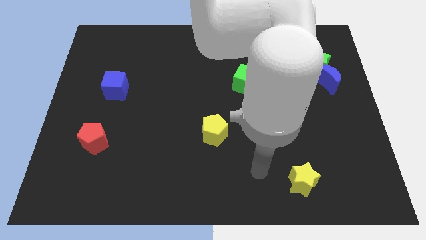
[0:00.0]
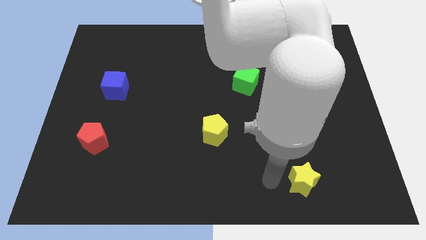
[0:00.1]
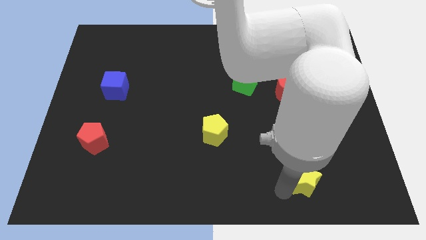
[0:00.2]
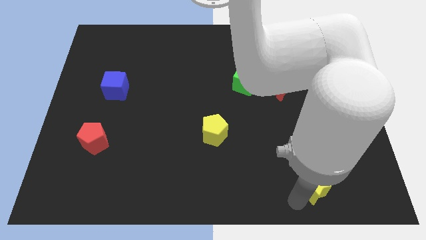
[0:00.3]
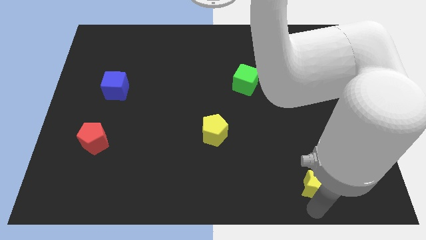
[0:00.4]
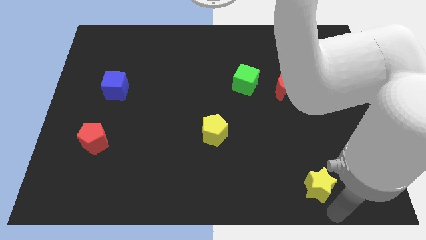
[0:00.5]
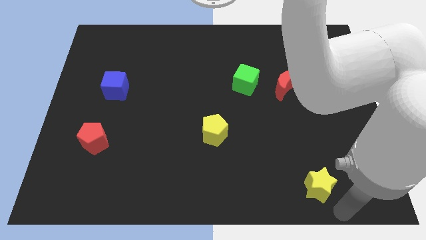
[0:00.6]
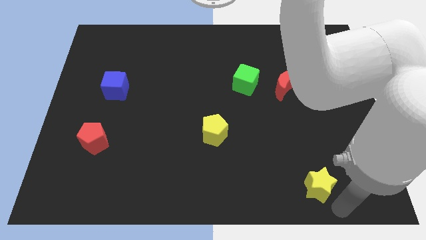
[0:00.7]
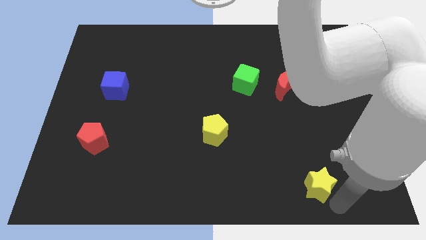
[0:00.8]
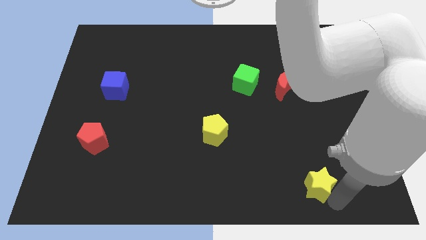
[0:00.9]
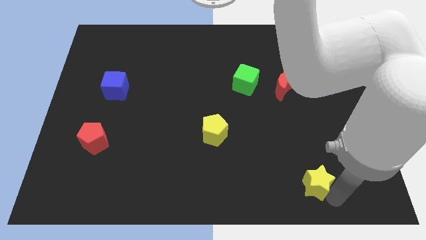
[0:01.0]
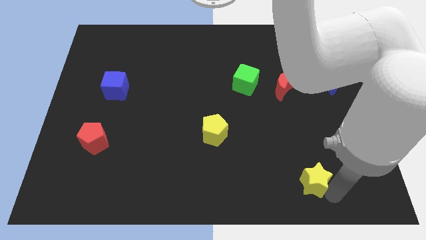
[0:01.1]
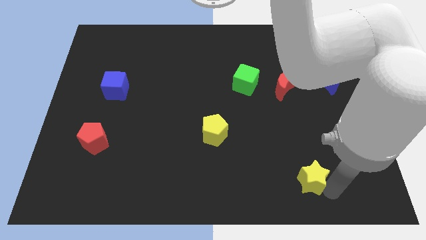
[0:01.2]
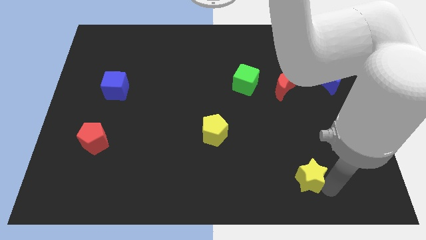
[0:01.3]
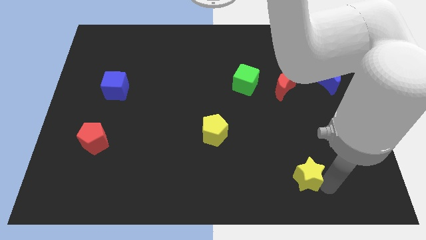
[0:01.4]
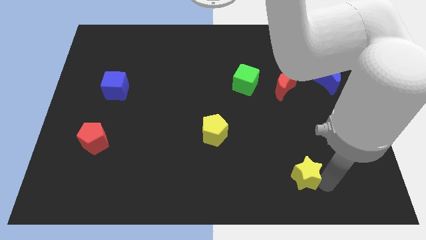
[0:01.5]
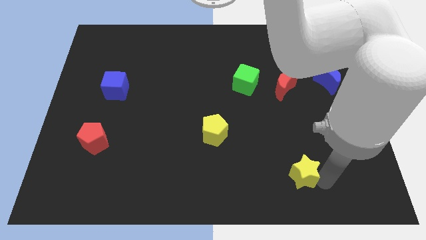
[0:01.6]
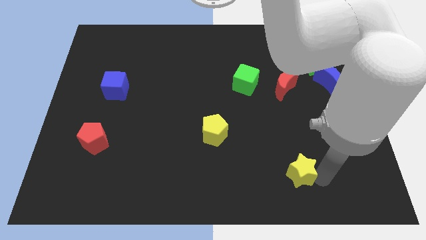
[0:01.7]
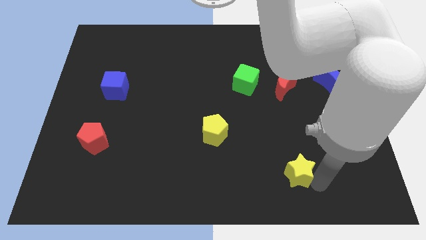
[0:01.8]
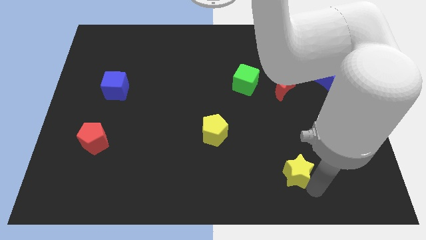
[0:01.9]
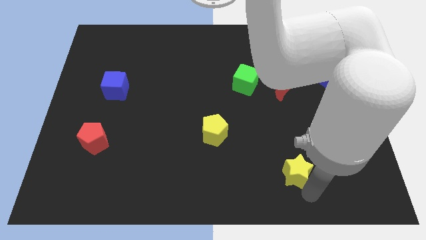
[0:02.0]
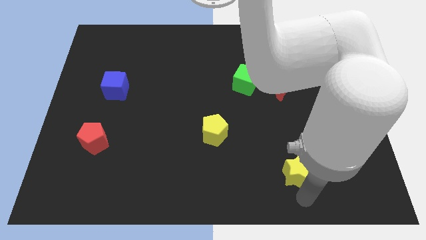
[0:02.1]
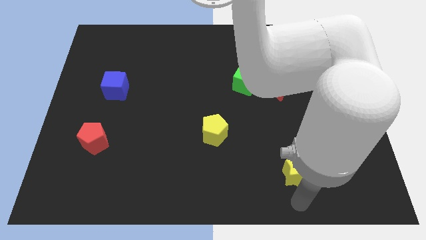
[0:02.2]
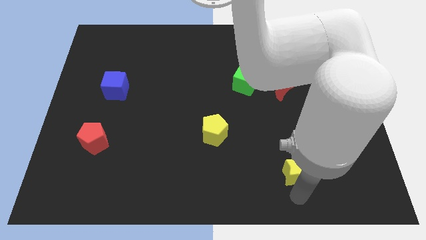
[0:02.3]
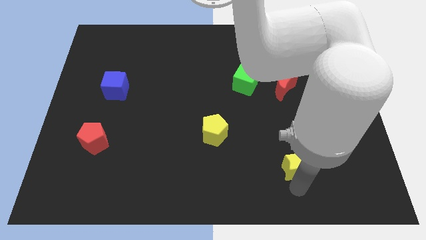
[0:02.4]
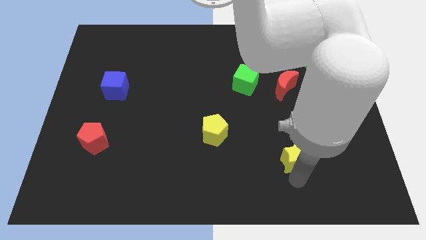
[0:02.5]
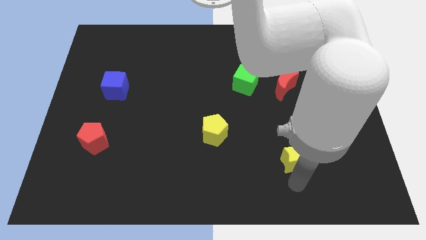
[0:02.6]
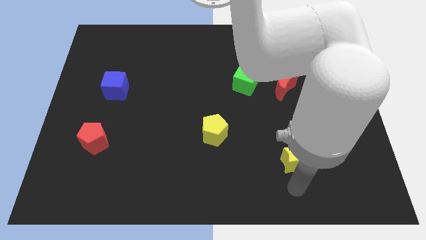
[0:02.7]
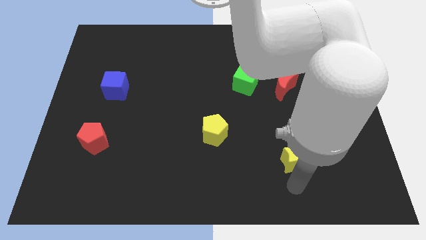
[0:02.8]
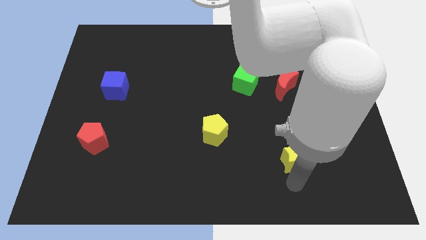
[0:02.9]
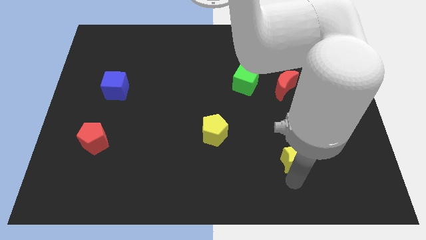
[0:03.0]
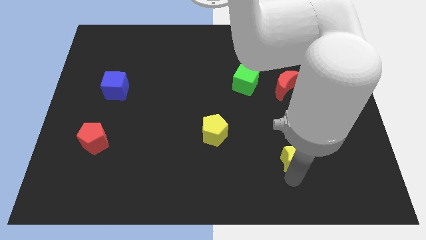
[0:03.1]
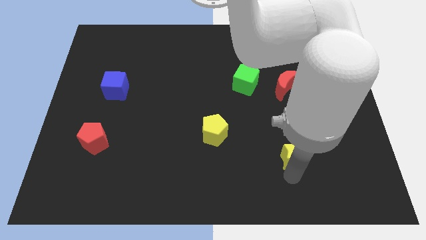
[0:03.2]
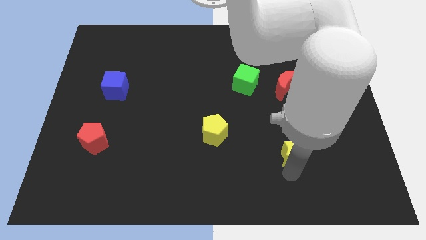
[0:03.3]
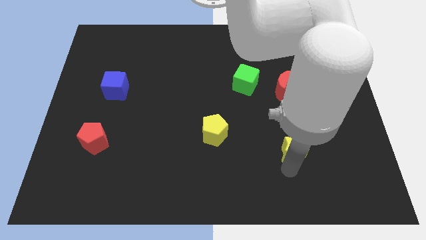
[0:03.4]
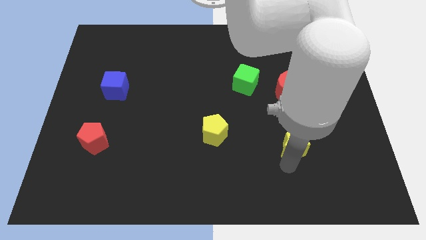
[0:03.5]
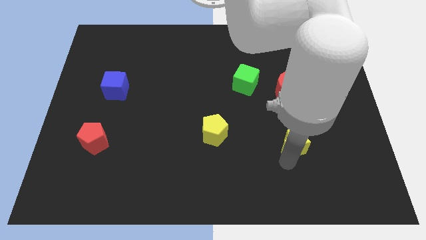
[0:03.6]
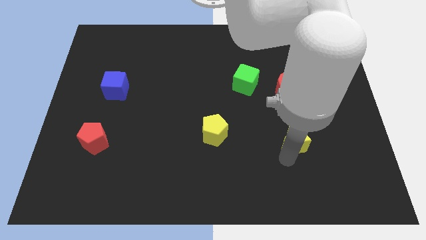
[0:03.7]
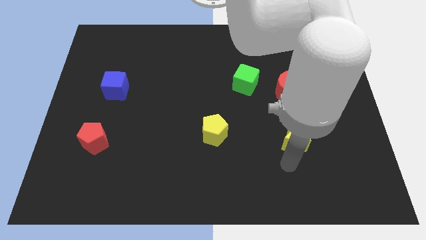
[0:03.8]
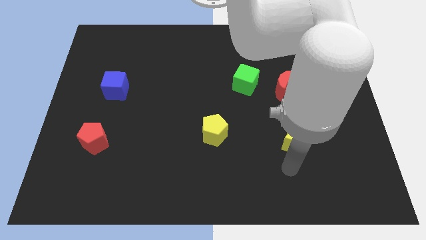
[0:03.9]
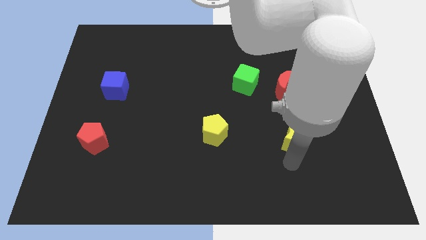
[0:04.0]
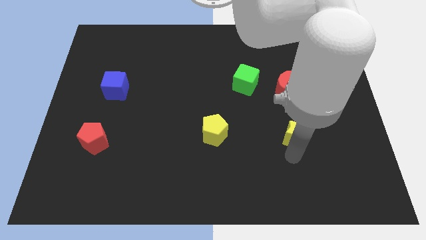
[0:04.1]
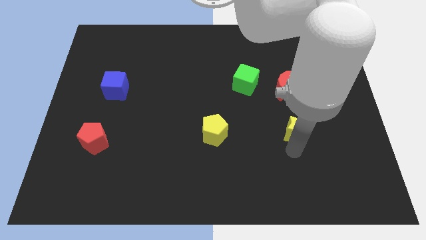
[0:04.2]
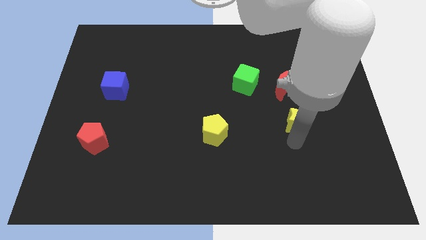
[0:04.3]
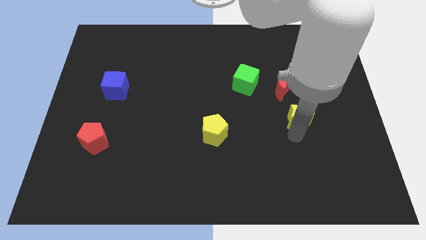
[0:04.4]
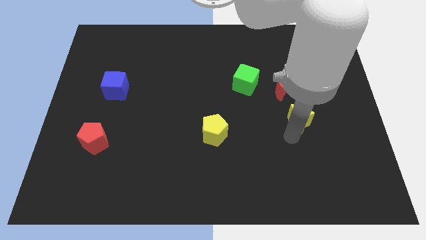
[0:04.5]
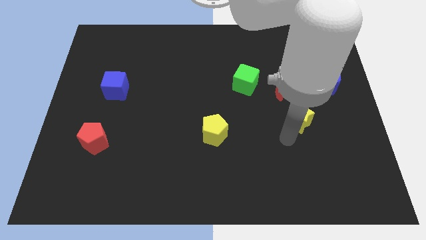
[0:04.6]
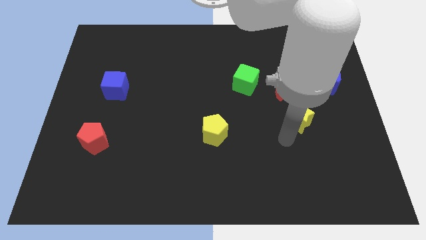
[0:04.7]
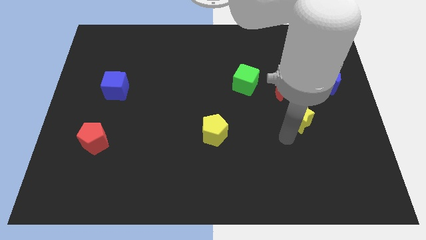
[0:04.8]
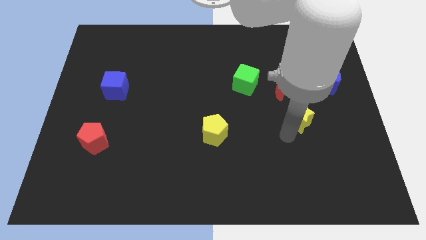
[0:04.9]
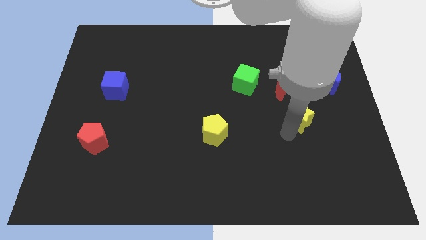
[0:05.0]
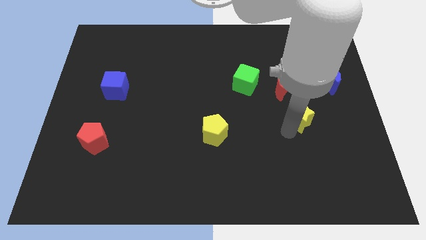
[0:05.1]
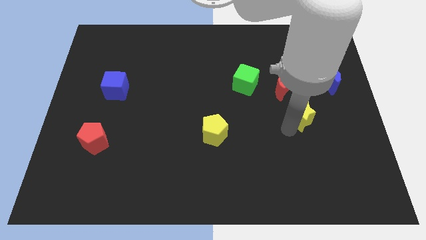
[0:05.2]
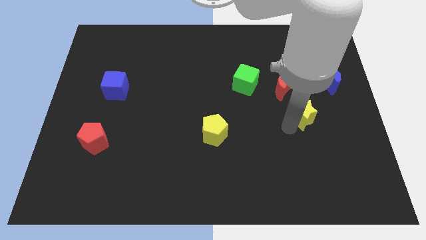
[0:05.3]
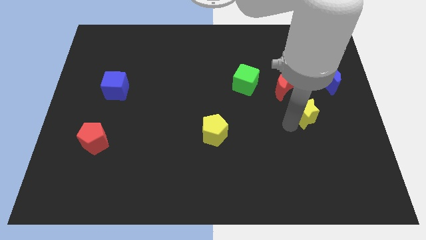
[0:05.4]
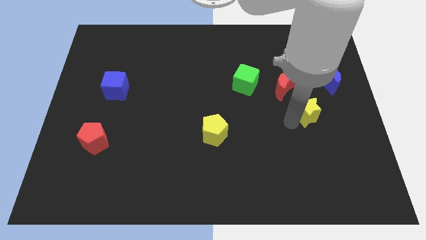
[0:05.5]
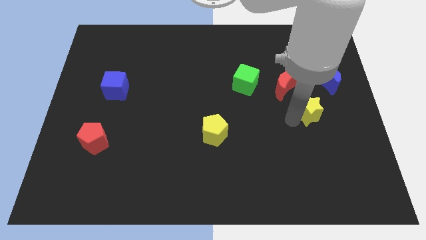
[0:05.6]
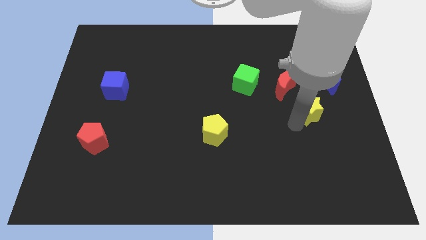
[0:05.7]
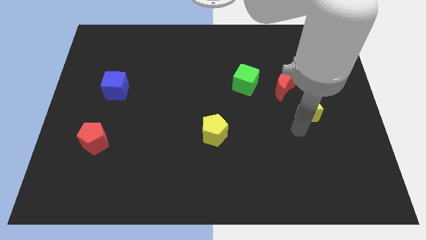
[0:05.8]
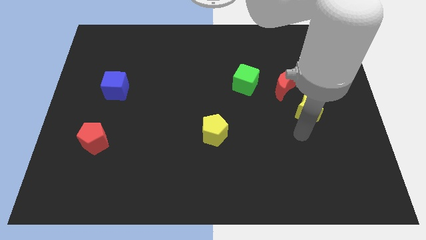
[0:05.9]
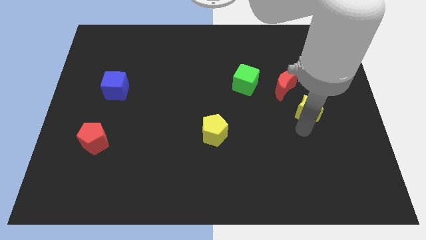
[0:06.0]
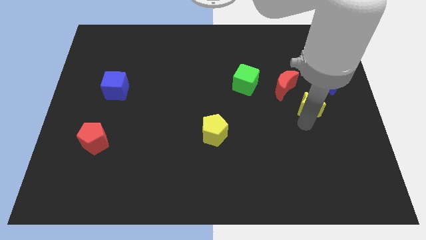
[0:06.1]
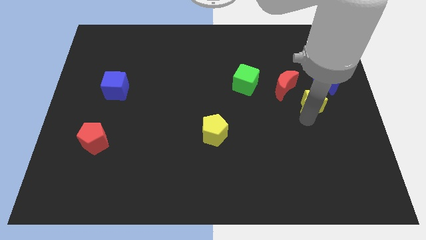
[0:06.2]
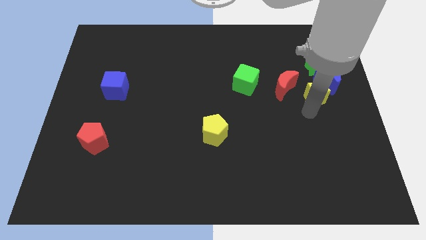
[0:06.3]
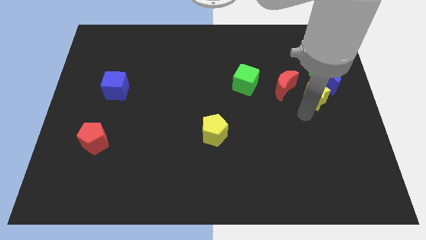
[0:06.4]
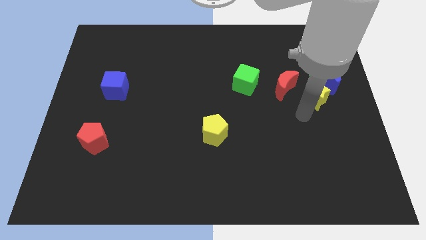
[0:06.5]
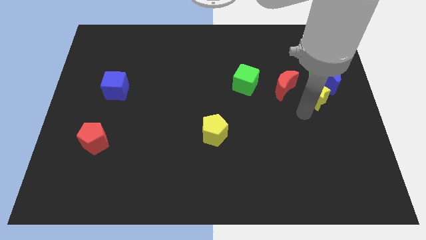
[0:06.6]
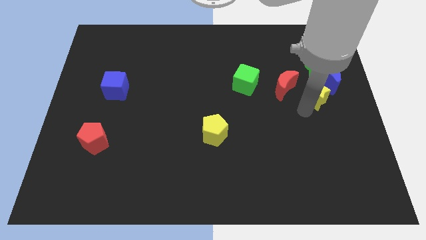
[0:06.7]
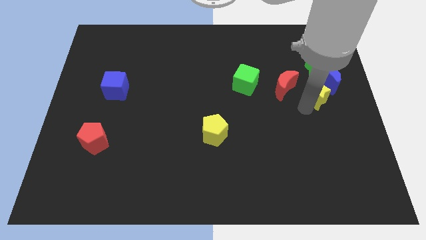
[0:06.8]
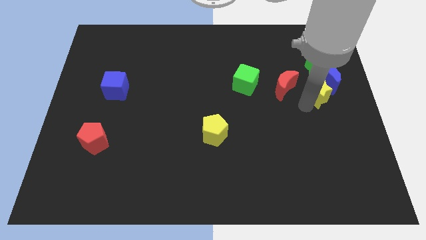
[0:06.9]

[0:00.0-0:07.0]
slide the yellow star close to the blue moon
